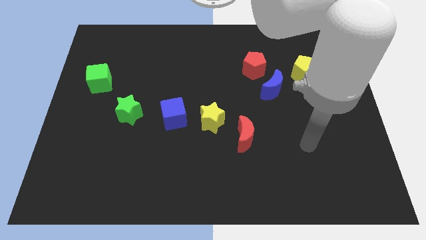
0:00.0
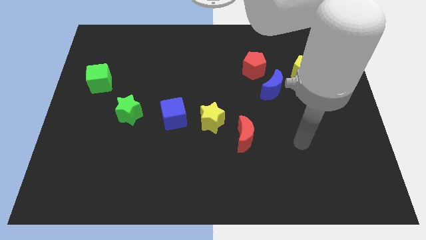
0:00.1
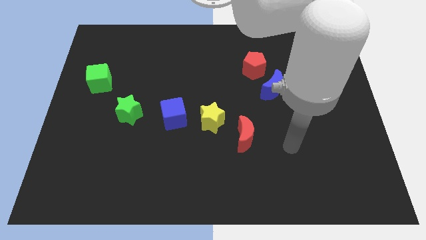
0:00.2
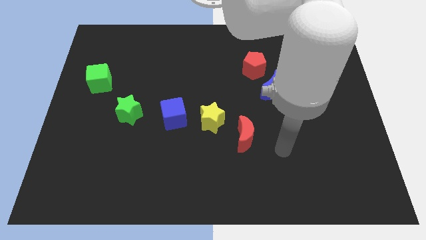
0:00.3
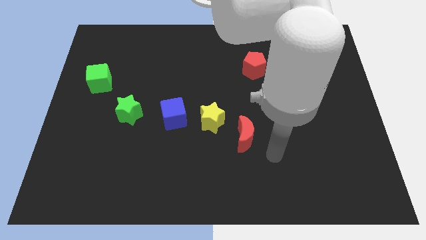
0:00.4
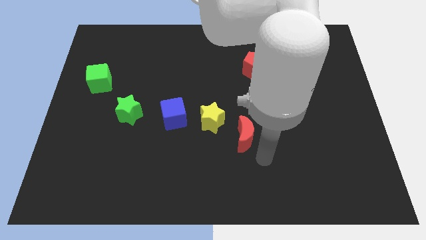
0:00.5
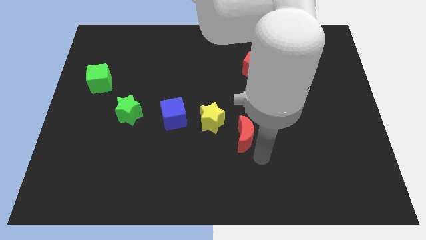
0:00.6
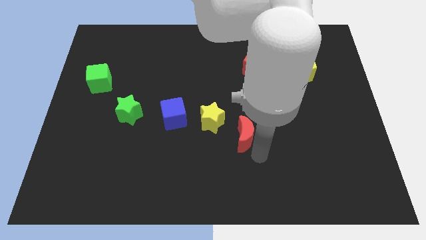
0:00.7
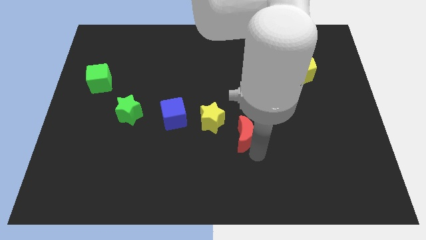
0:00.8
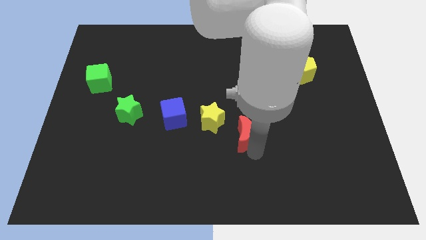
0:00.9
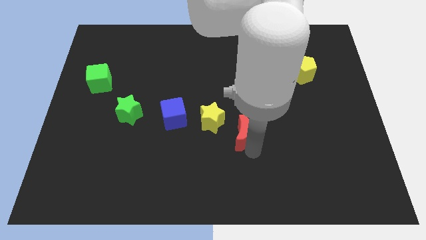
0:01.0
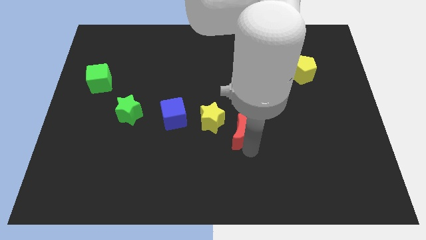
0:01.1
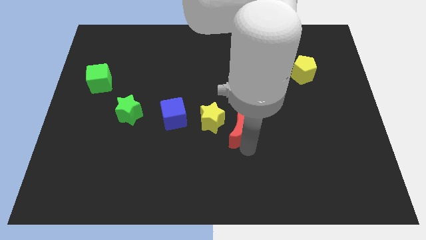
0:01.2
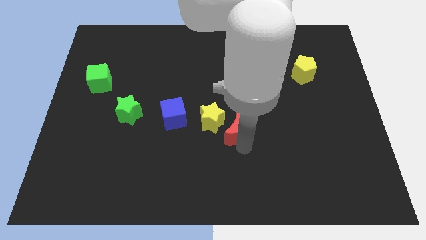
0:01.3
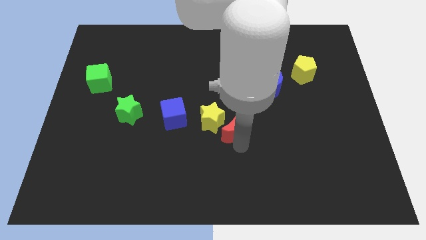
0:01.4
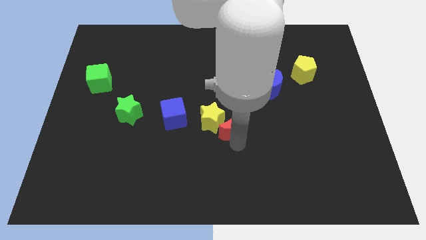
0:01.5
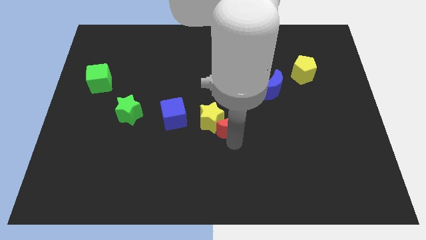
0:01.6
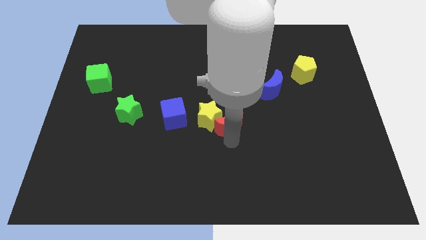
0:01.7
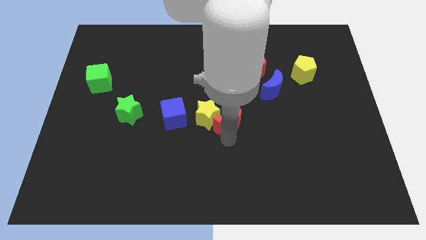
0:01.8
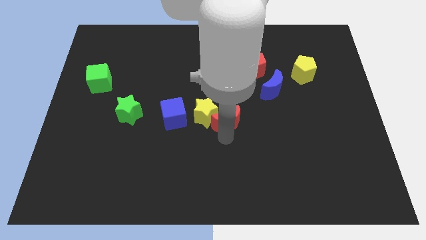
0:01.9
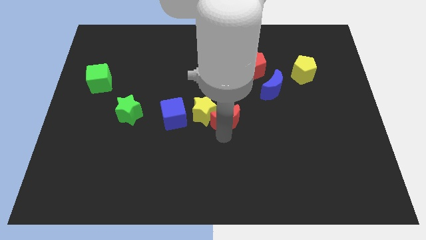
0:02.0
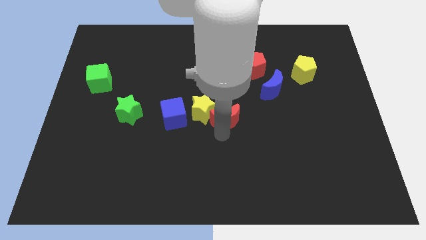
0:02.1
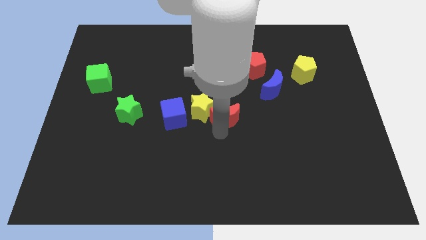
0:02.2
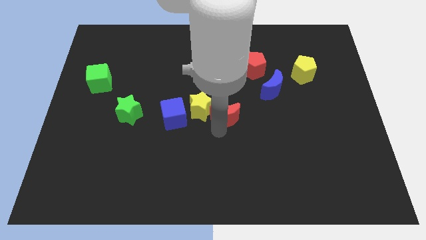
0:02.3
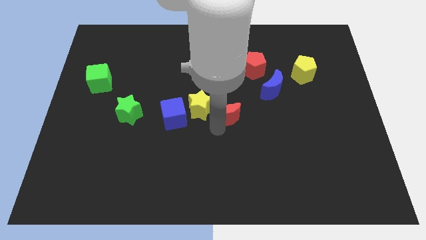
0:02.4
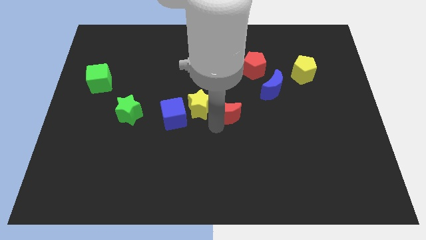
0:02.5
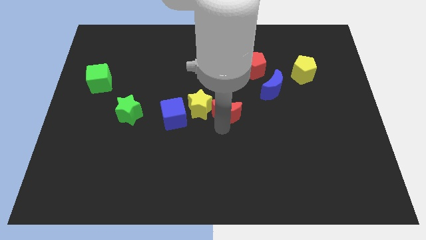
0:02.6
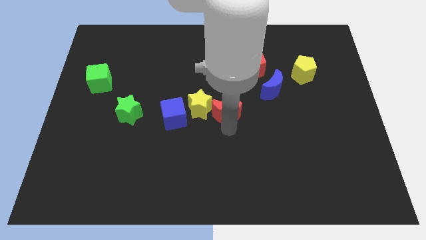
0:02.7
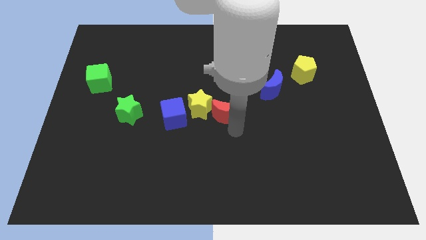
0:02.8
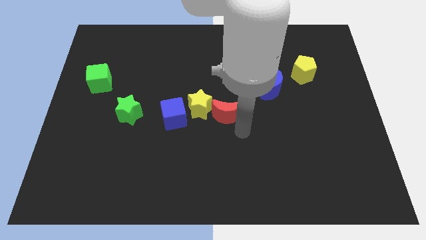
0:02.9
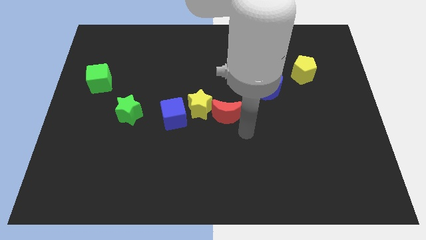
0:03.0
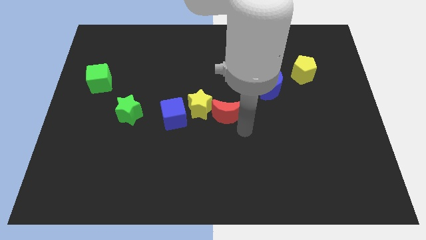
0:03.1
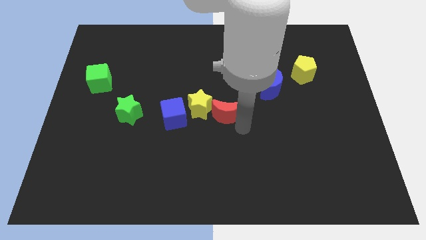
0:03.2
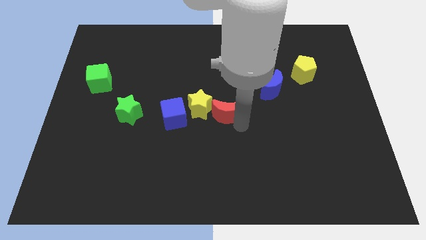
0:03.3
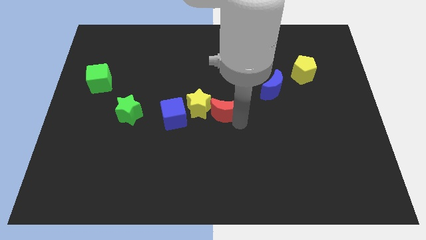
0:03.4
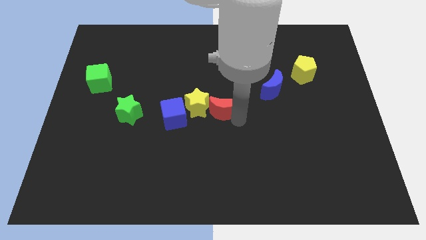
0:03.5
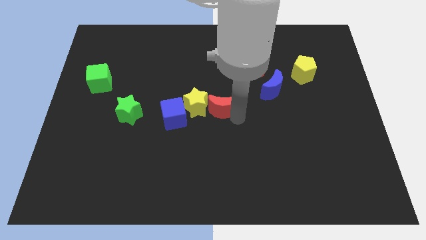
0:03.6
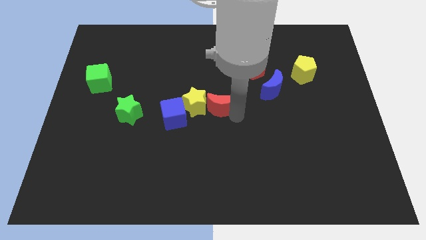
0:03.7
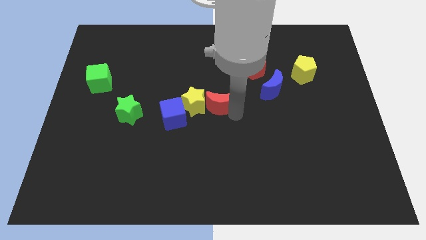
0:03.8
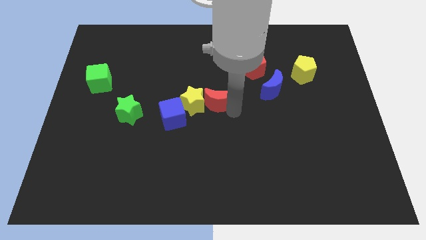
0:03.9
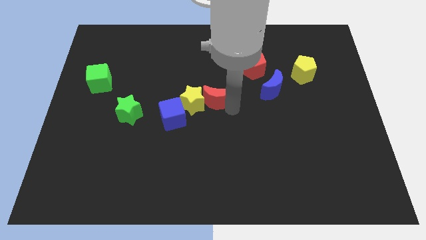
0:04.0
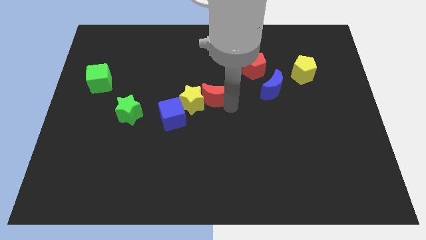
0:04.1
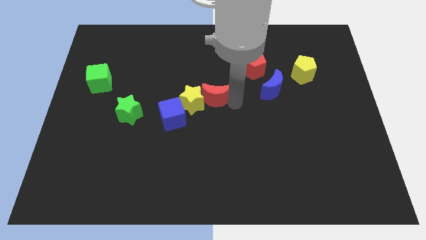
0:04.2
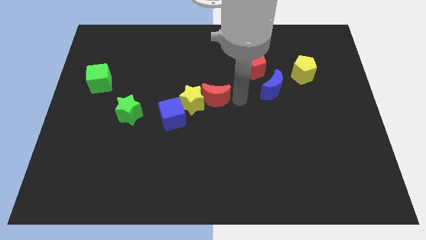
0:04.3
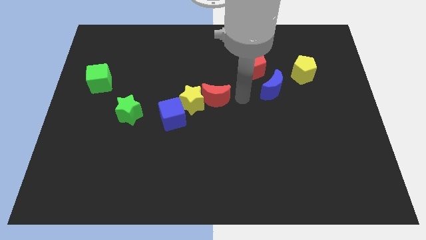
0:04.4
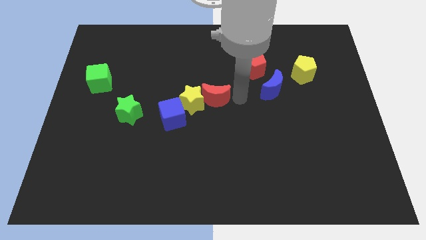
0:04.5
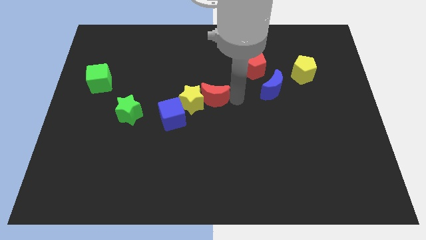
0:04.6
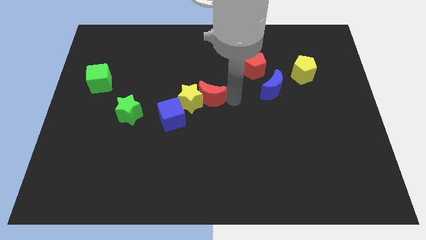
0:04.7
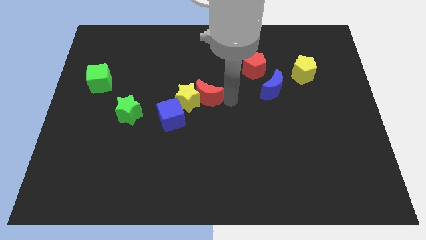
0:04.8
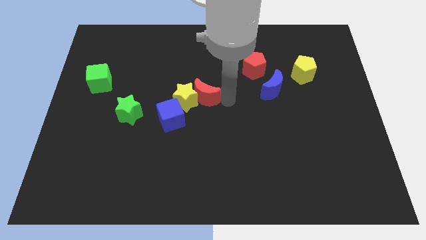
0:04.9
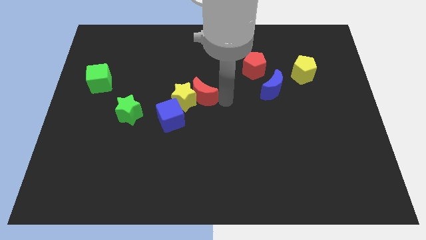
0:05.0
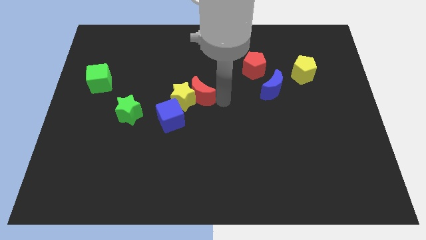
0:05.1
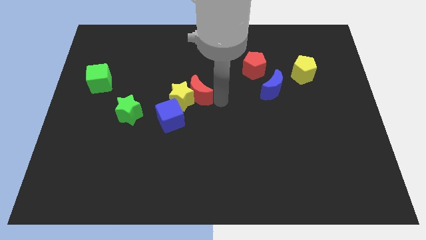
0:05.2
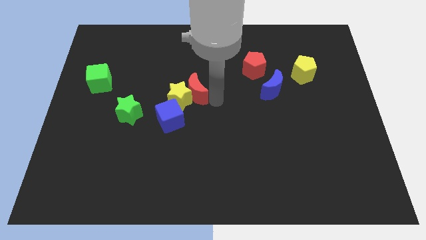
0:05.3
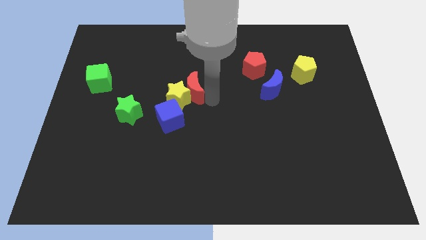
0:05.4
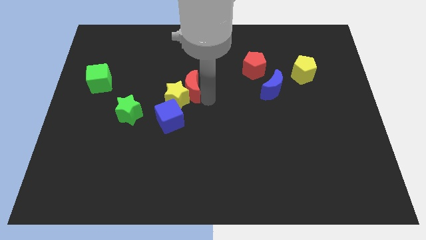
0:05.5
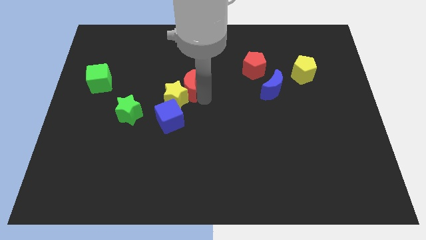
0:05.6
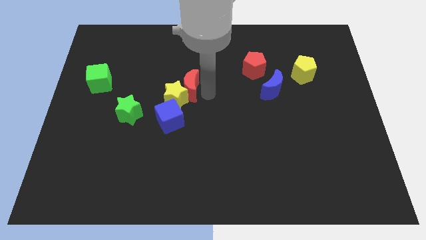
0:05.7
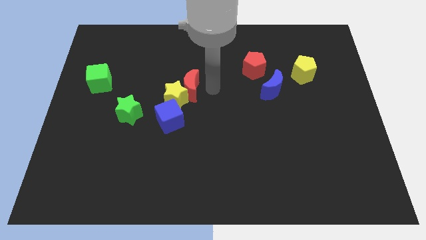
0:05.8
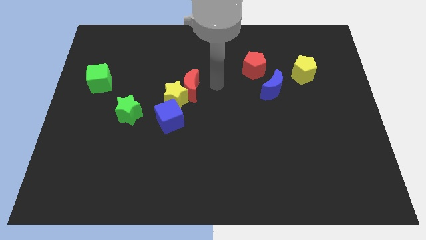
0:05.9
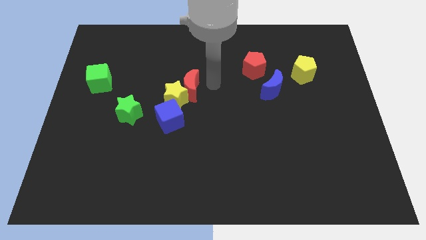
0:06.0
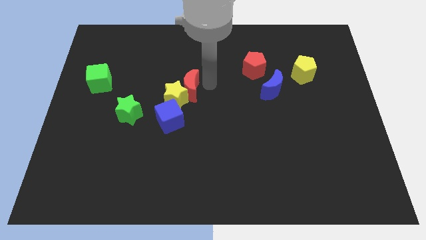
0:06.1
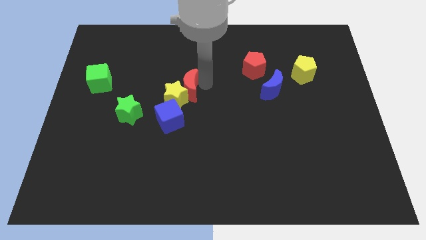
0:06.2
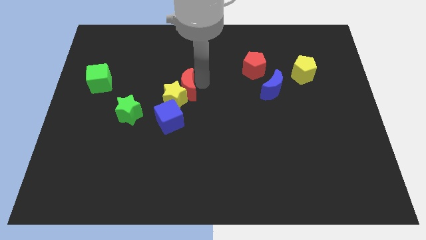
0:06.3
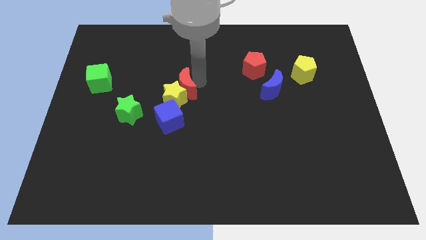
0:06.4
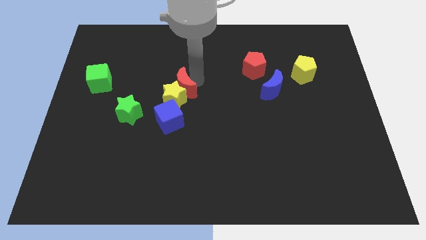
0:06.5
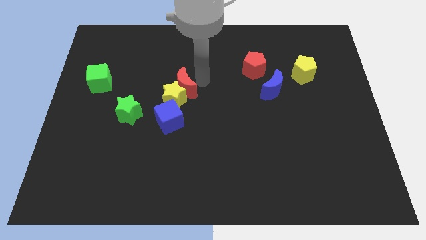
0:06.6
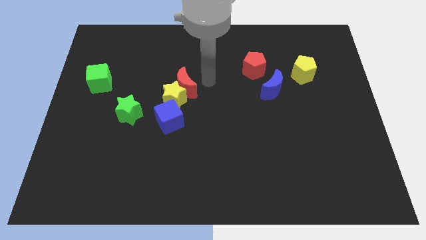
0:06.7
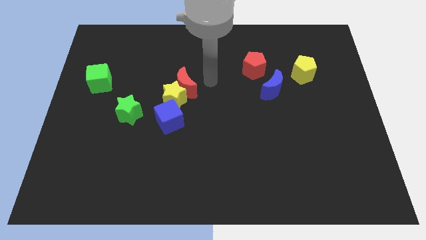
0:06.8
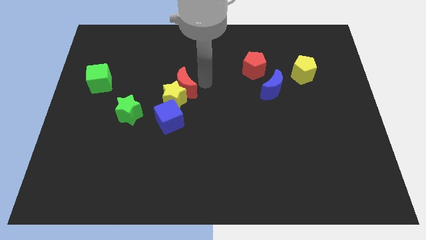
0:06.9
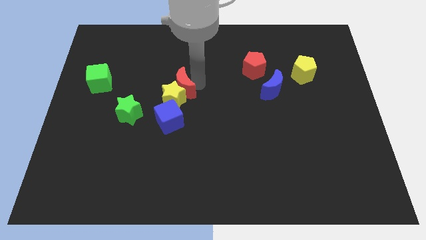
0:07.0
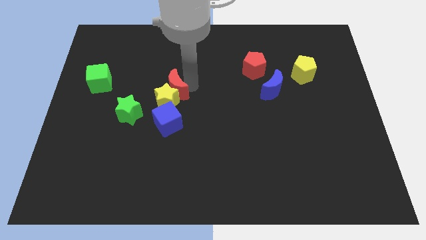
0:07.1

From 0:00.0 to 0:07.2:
put the red moon to the top right of the green star

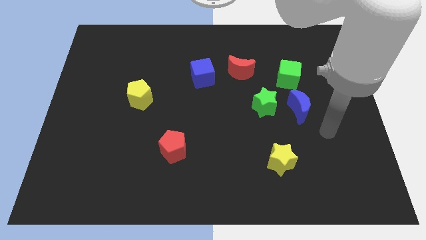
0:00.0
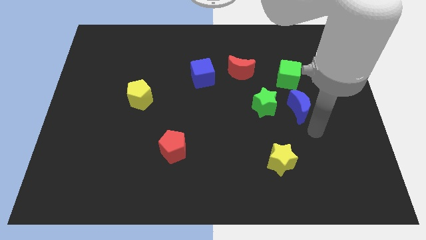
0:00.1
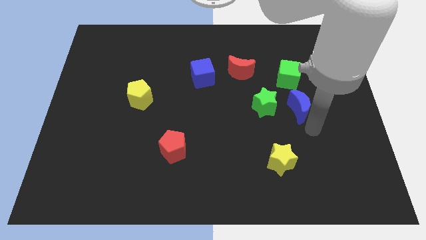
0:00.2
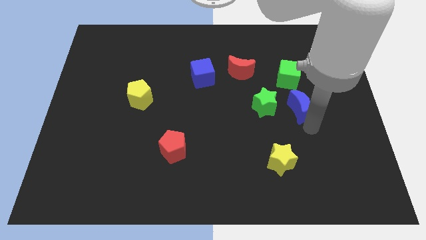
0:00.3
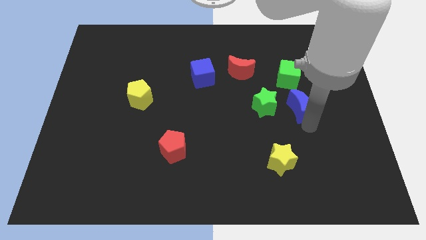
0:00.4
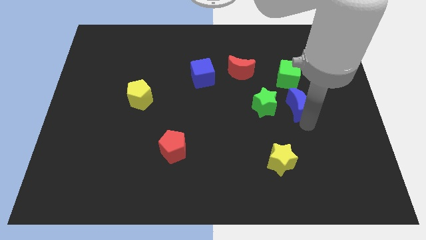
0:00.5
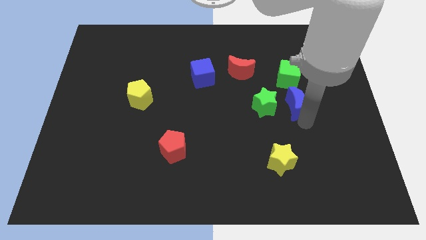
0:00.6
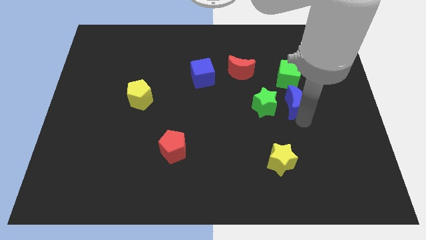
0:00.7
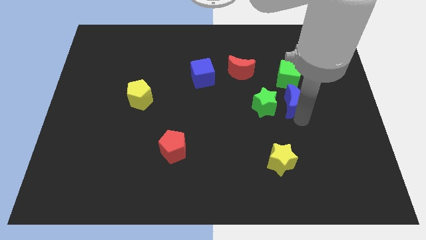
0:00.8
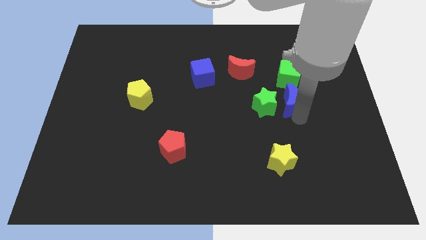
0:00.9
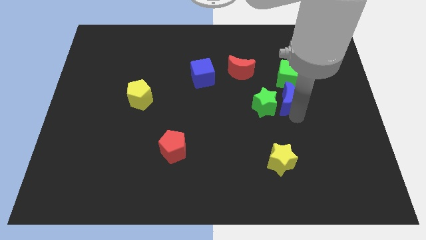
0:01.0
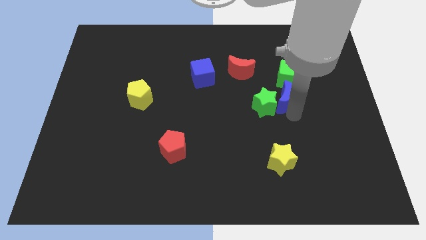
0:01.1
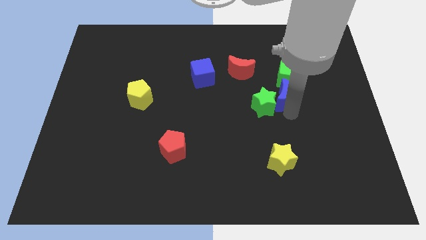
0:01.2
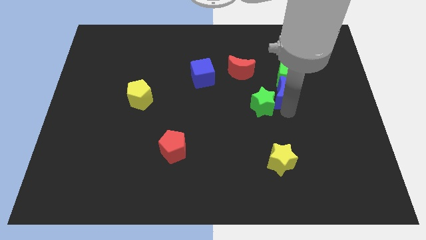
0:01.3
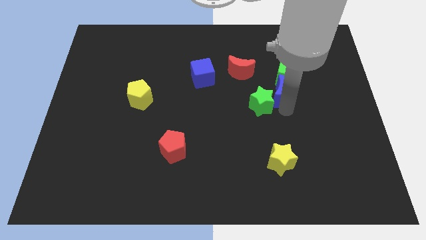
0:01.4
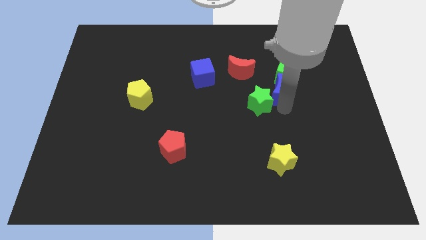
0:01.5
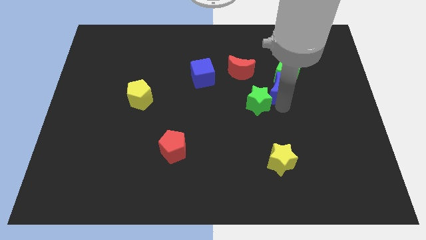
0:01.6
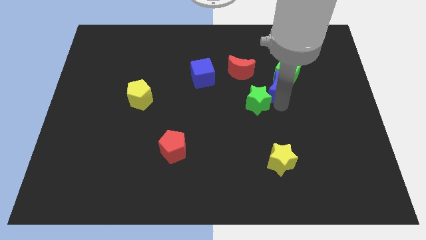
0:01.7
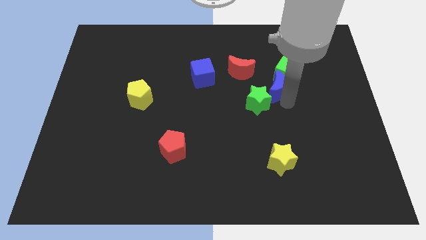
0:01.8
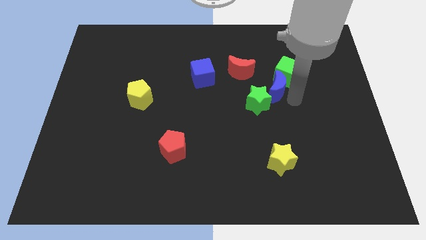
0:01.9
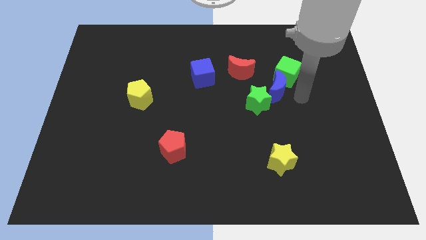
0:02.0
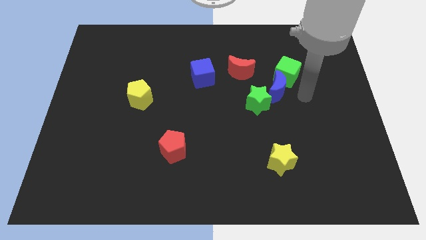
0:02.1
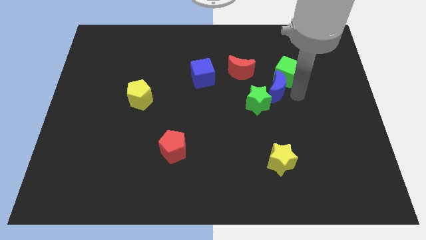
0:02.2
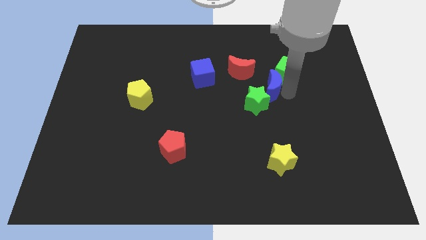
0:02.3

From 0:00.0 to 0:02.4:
move the blue moon left of the green cube
